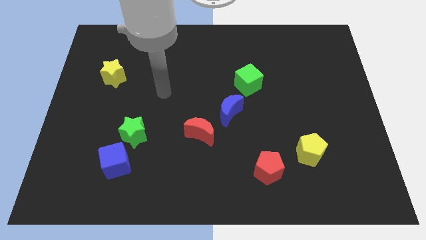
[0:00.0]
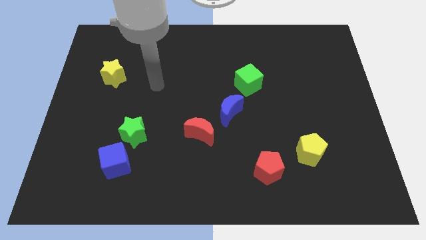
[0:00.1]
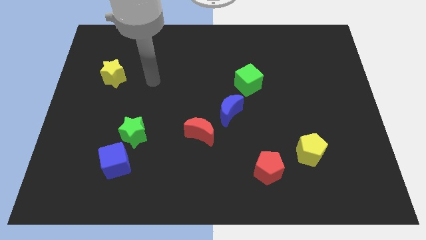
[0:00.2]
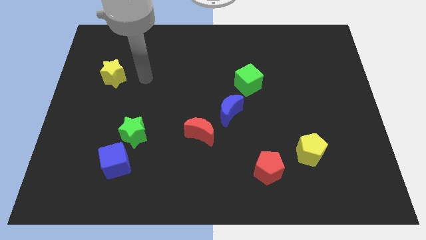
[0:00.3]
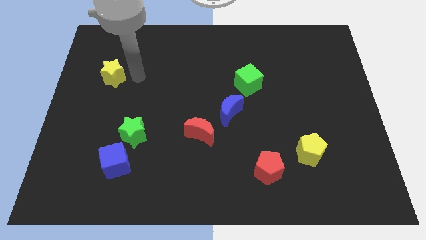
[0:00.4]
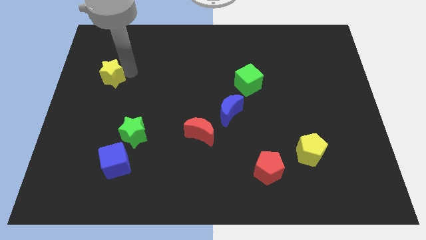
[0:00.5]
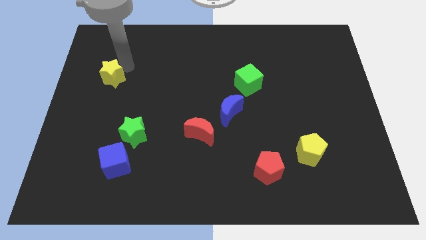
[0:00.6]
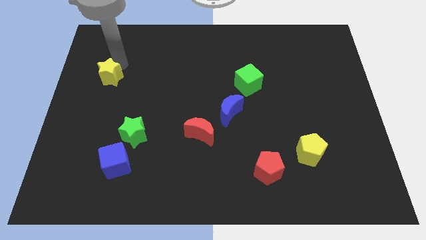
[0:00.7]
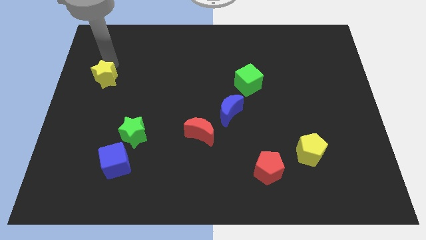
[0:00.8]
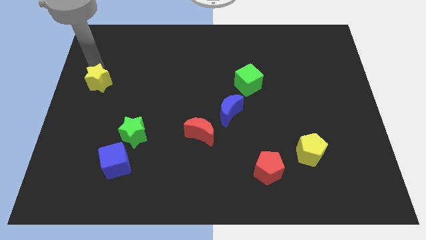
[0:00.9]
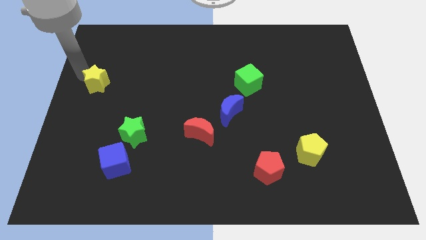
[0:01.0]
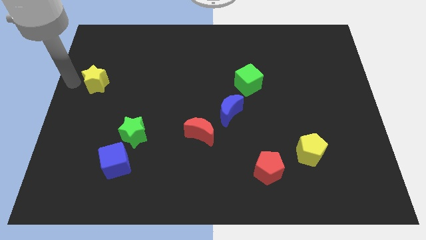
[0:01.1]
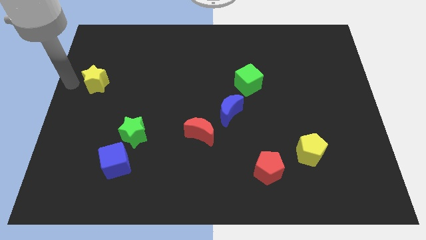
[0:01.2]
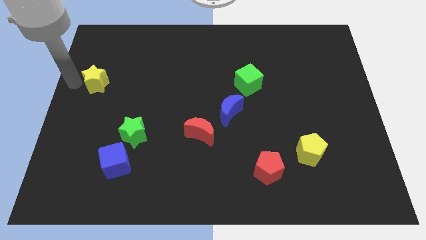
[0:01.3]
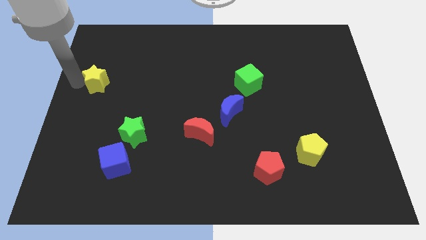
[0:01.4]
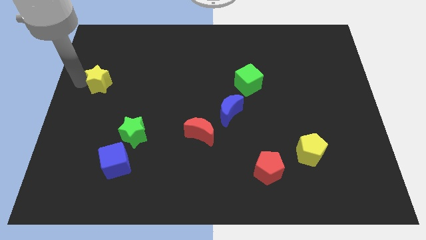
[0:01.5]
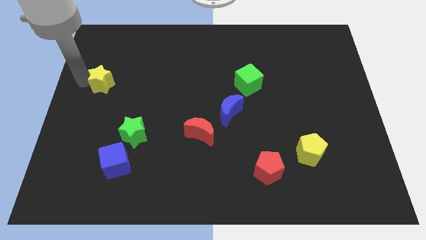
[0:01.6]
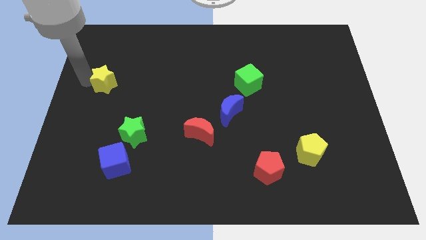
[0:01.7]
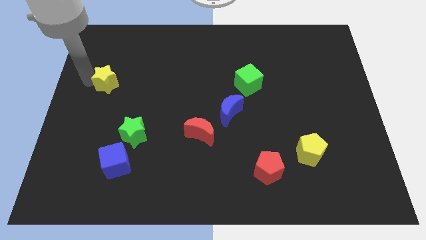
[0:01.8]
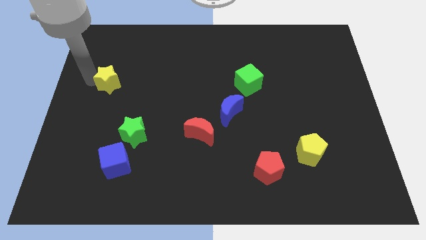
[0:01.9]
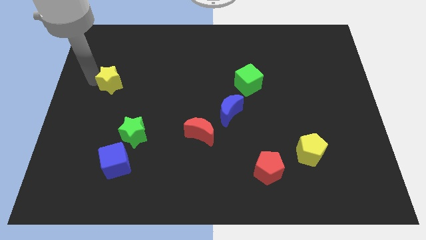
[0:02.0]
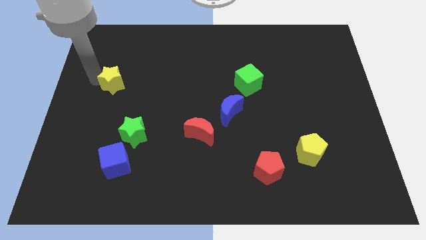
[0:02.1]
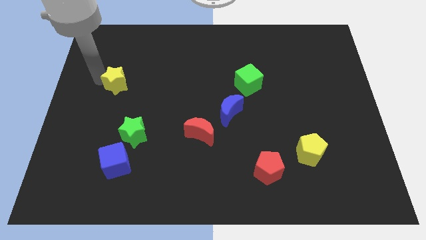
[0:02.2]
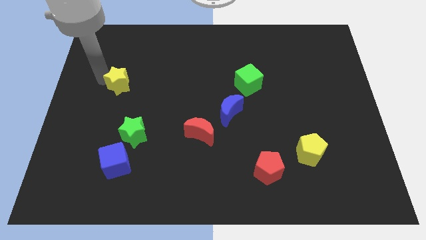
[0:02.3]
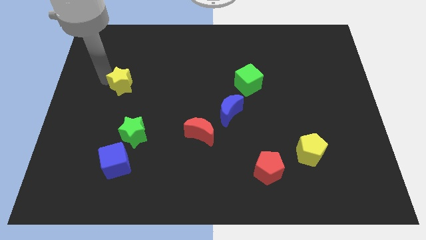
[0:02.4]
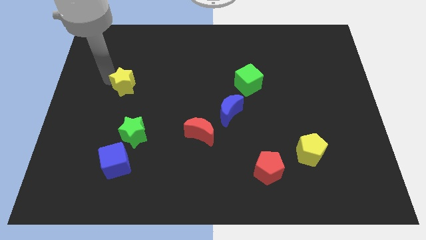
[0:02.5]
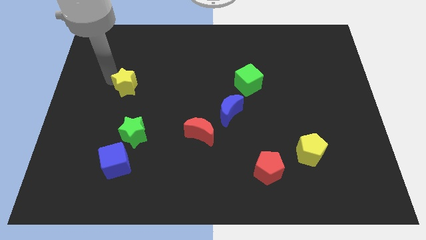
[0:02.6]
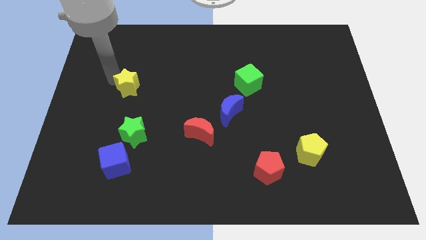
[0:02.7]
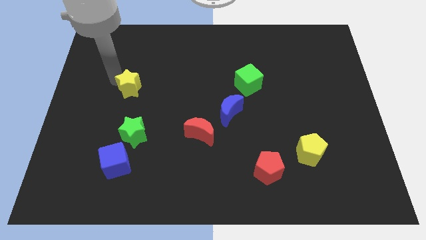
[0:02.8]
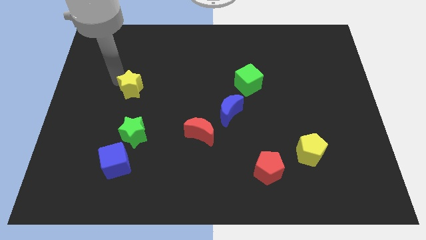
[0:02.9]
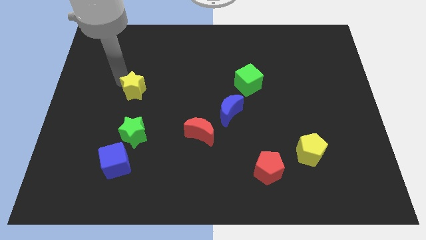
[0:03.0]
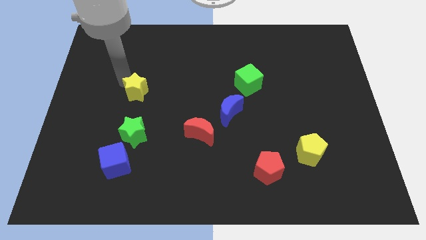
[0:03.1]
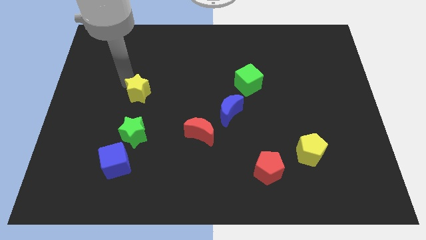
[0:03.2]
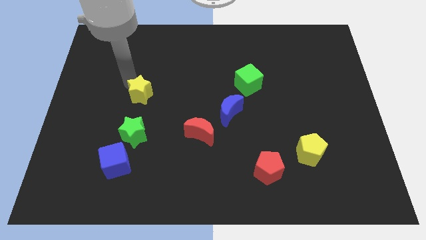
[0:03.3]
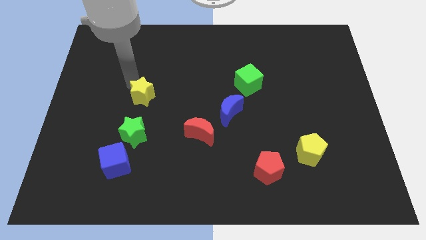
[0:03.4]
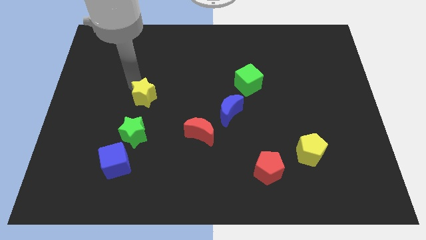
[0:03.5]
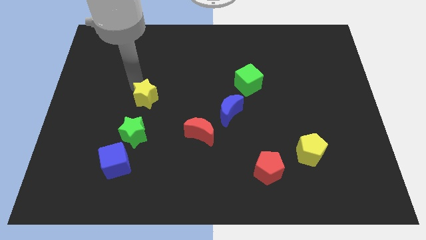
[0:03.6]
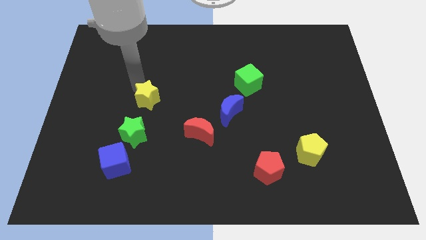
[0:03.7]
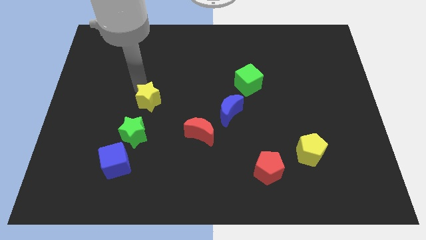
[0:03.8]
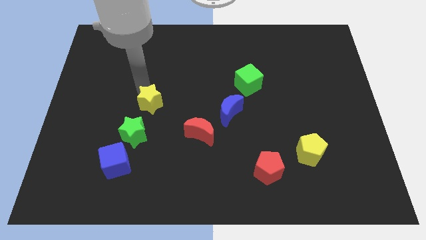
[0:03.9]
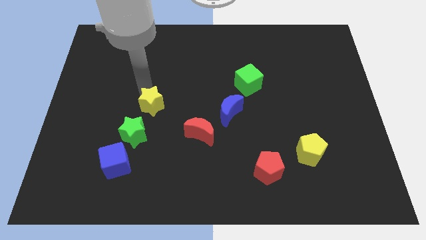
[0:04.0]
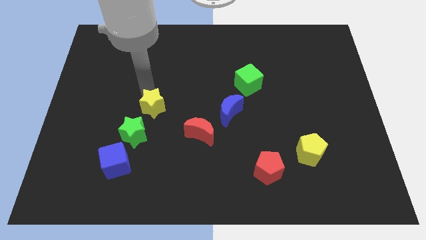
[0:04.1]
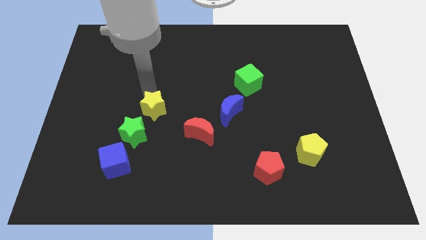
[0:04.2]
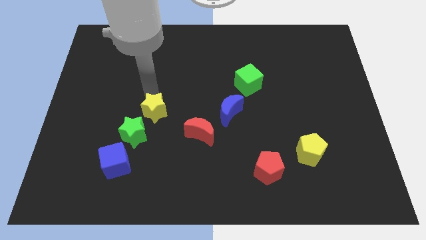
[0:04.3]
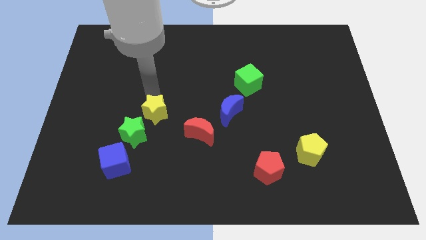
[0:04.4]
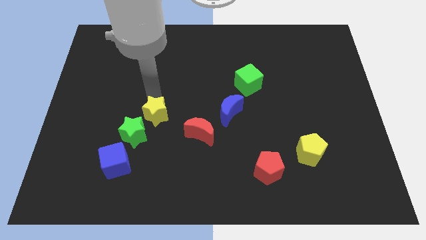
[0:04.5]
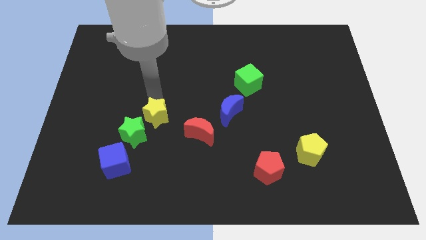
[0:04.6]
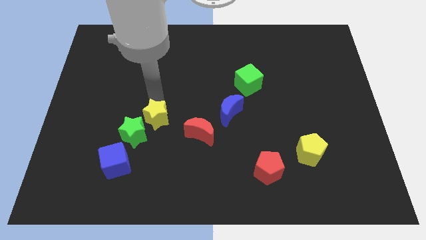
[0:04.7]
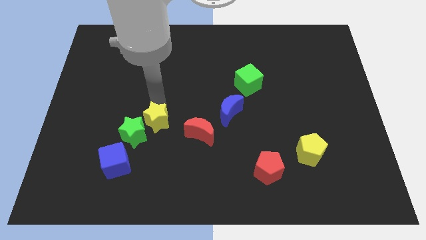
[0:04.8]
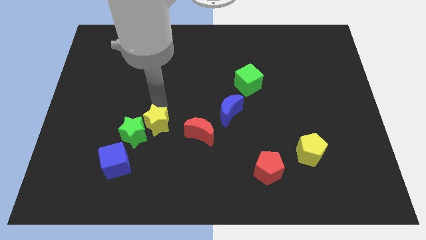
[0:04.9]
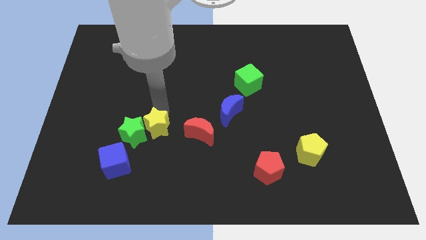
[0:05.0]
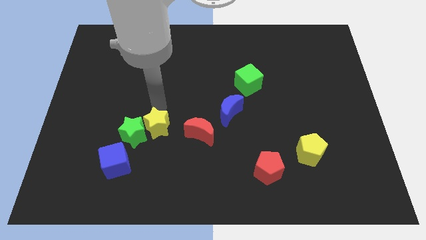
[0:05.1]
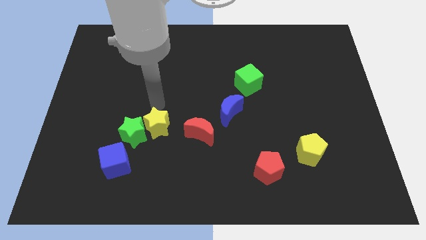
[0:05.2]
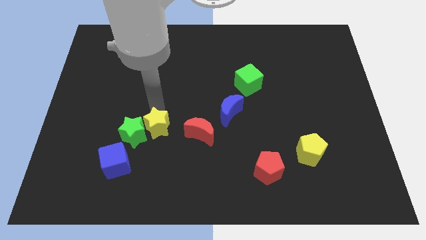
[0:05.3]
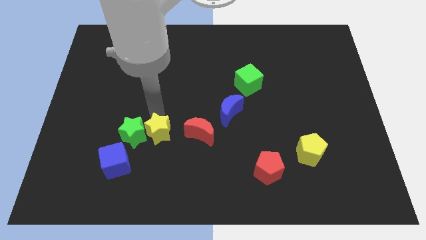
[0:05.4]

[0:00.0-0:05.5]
slide the yellow star to the bottom right of the green star

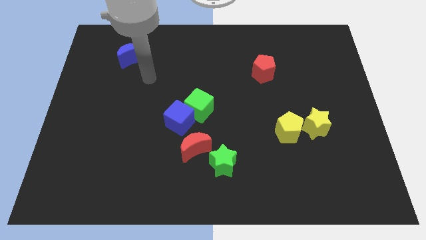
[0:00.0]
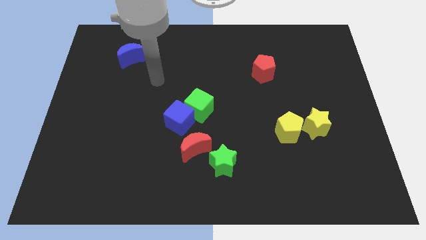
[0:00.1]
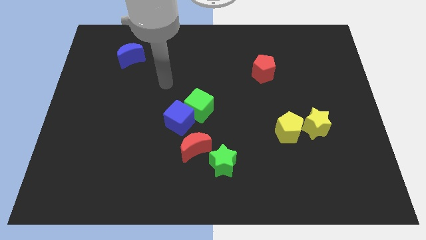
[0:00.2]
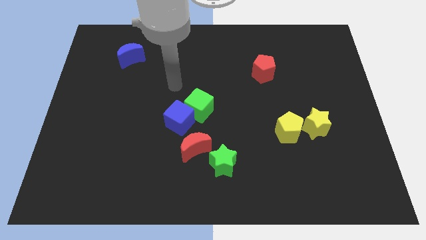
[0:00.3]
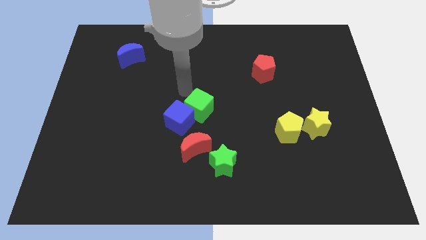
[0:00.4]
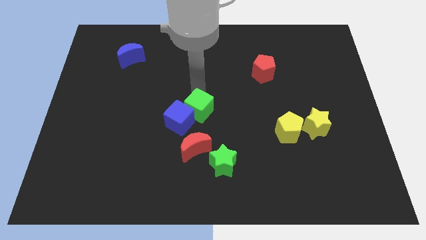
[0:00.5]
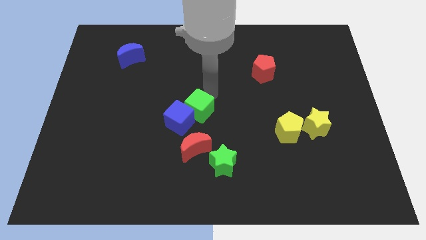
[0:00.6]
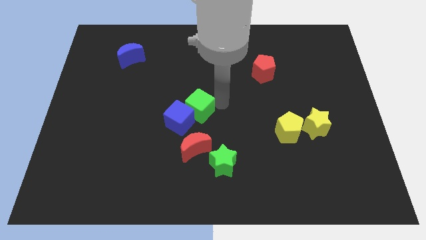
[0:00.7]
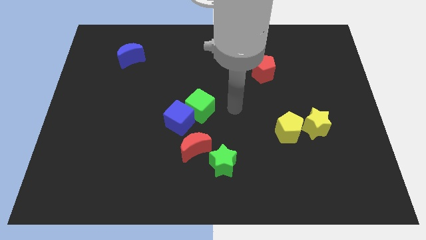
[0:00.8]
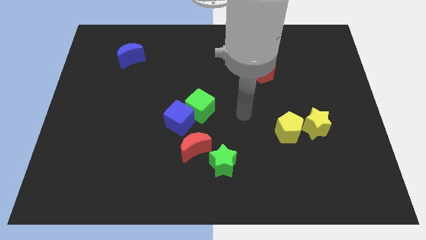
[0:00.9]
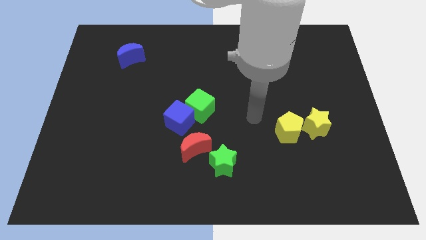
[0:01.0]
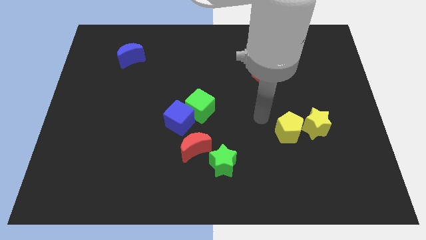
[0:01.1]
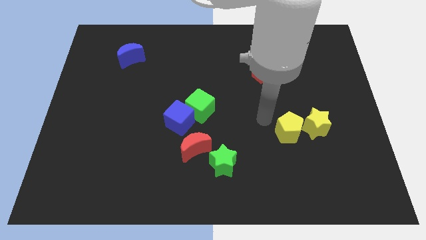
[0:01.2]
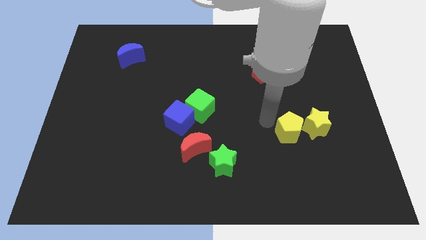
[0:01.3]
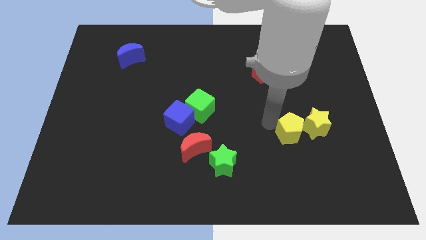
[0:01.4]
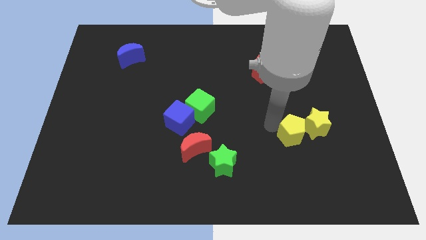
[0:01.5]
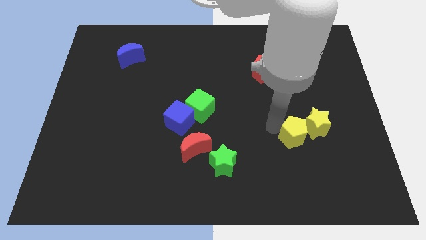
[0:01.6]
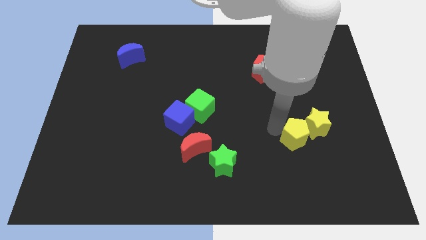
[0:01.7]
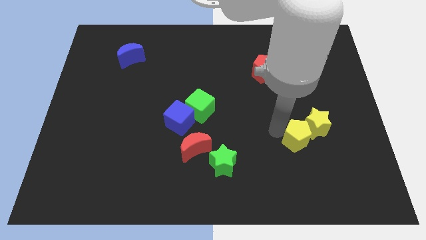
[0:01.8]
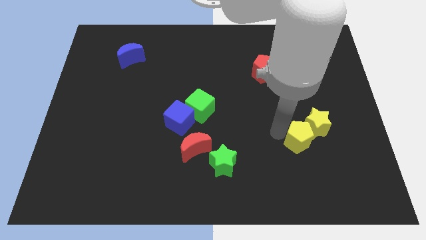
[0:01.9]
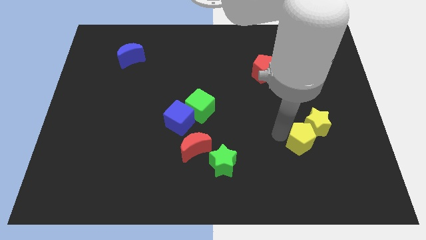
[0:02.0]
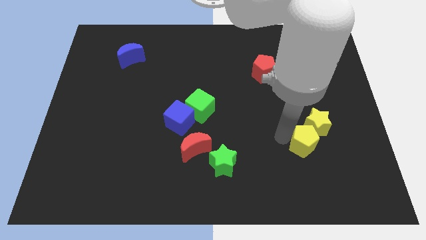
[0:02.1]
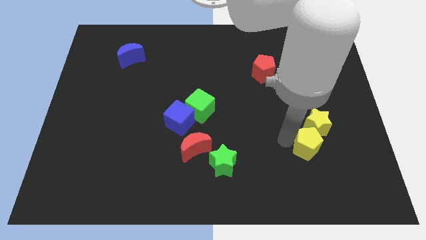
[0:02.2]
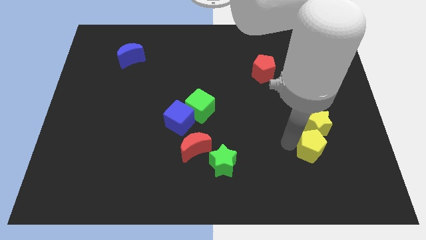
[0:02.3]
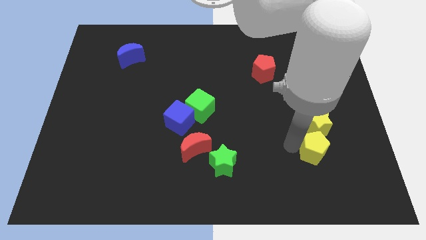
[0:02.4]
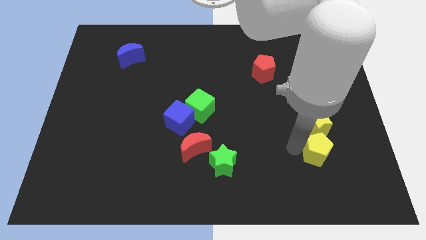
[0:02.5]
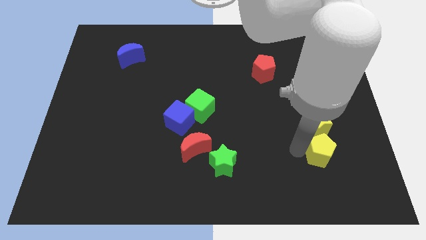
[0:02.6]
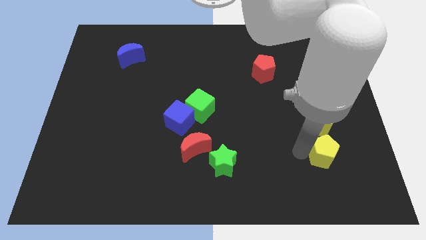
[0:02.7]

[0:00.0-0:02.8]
move the yellow pentagon diagonally down and to the right of the yellow star
